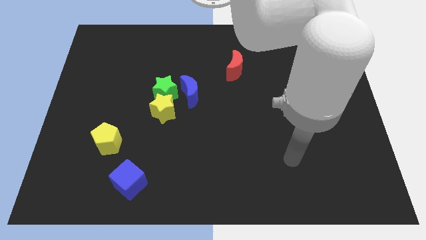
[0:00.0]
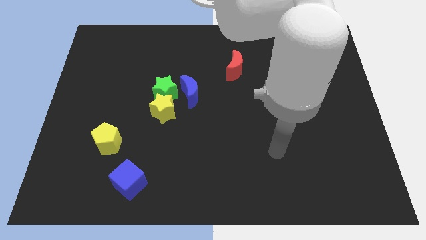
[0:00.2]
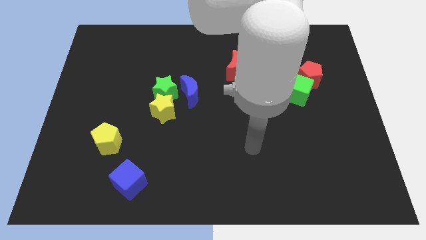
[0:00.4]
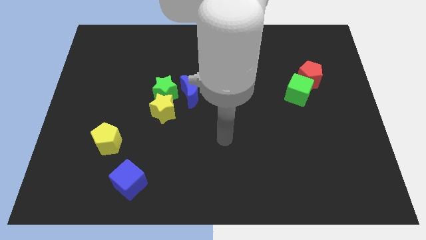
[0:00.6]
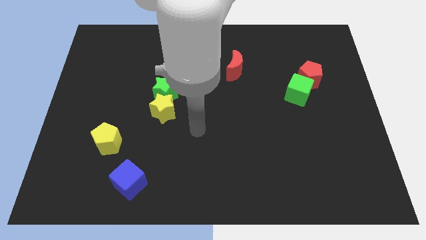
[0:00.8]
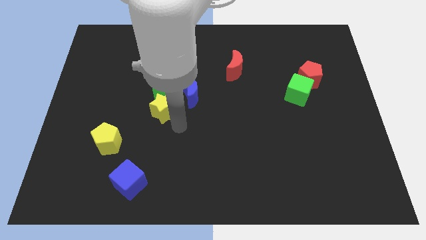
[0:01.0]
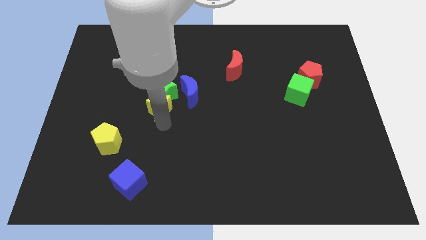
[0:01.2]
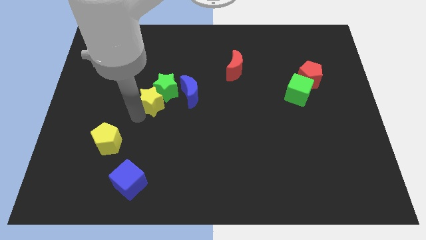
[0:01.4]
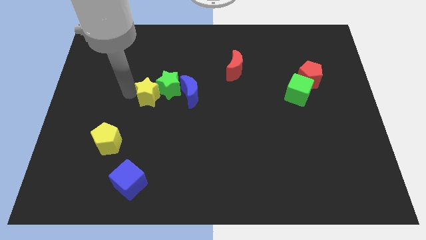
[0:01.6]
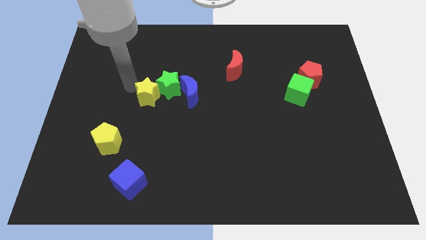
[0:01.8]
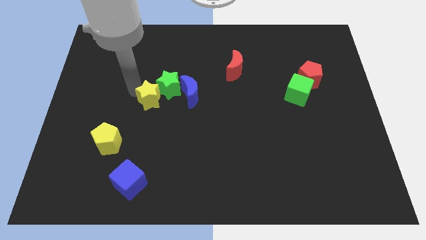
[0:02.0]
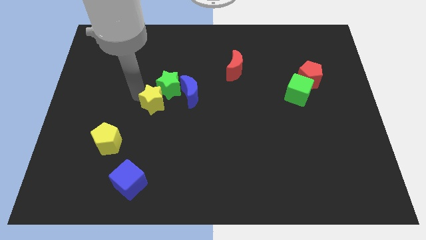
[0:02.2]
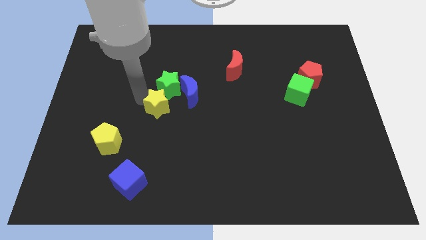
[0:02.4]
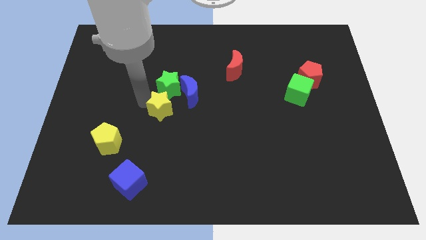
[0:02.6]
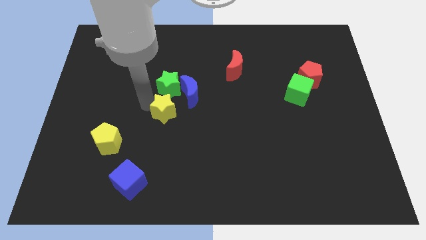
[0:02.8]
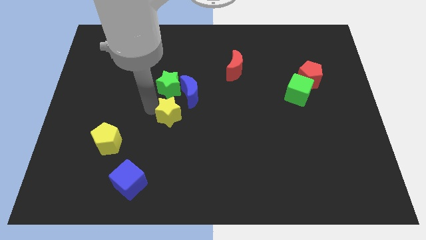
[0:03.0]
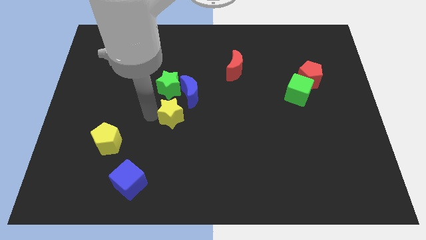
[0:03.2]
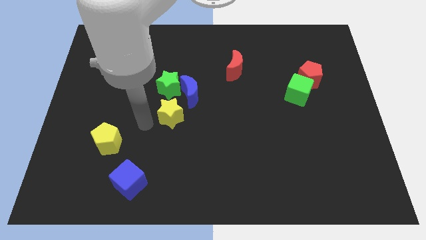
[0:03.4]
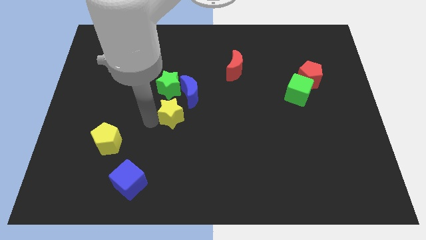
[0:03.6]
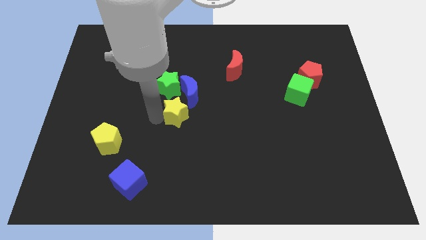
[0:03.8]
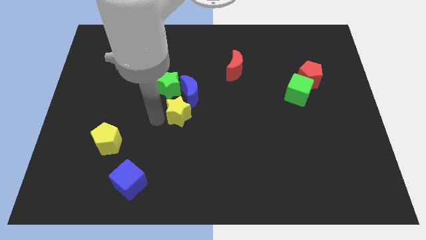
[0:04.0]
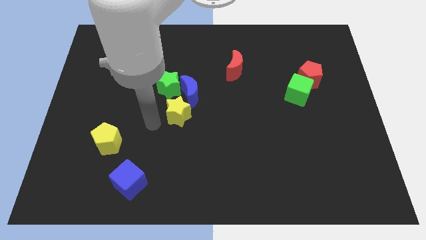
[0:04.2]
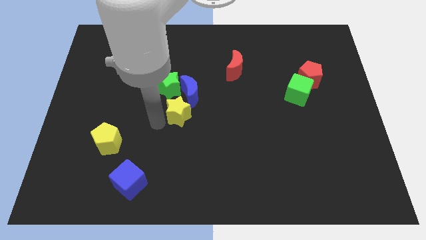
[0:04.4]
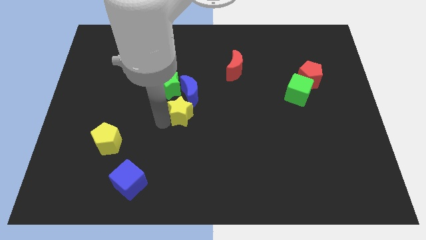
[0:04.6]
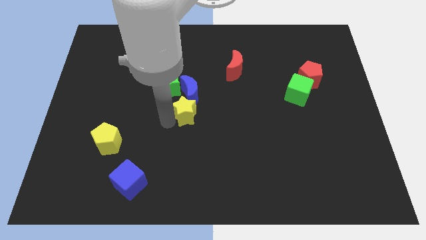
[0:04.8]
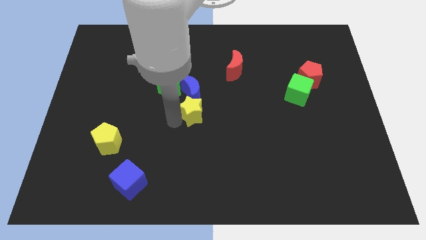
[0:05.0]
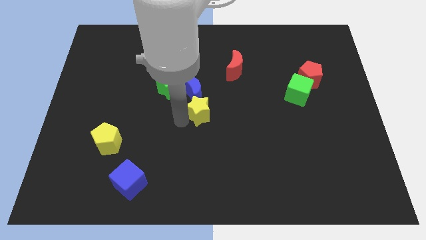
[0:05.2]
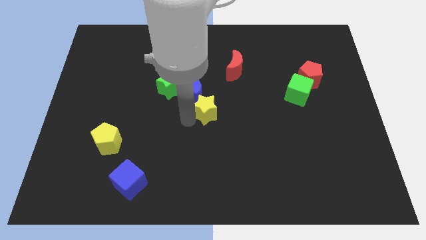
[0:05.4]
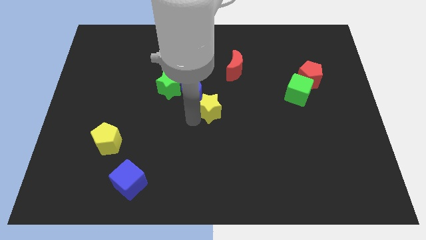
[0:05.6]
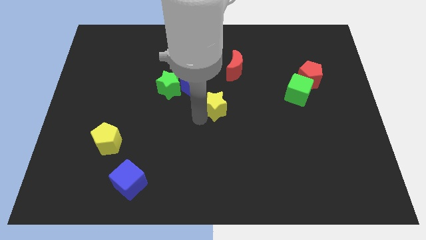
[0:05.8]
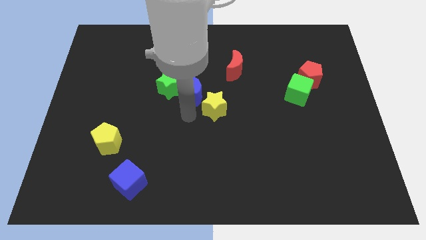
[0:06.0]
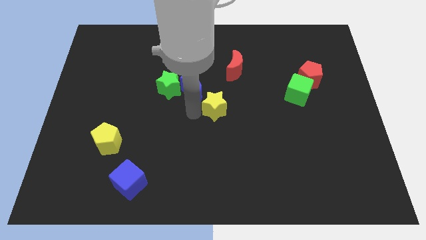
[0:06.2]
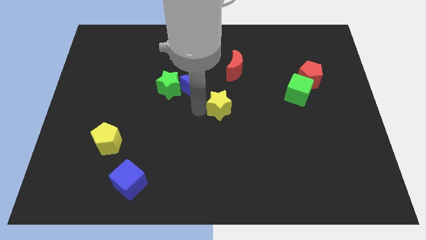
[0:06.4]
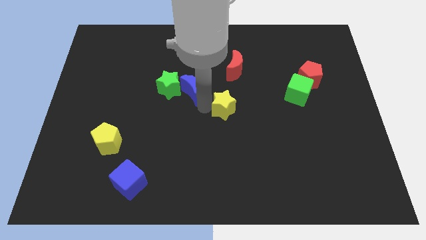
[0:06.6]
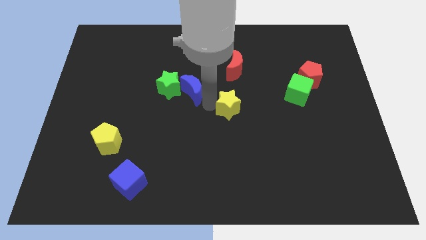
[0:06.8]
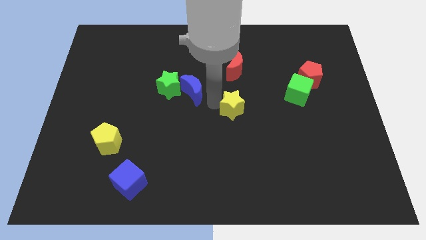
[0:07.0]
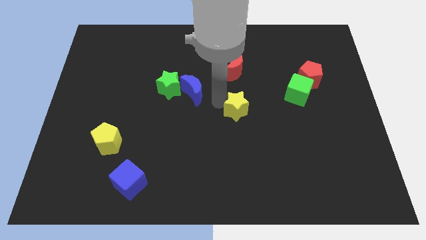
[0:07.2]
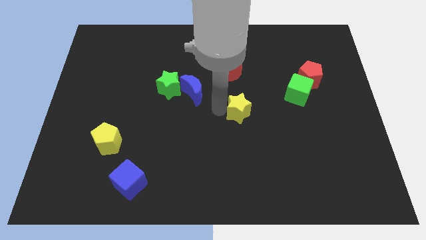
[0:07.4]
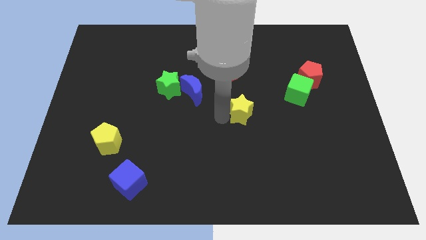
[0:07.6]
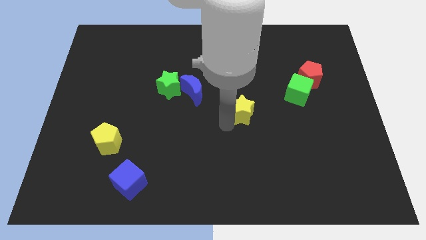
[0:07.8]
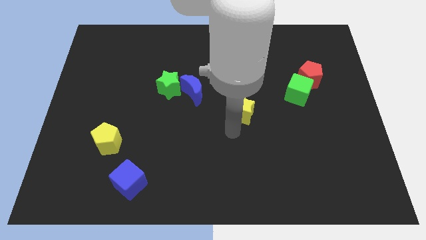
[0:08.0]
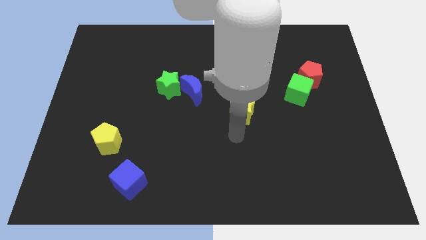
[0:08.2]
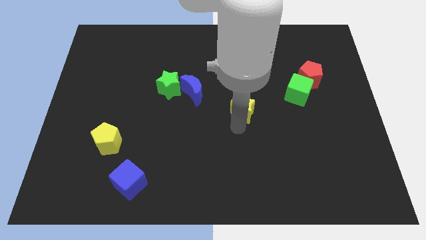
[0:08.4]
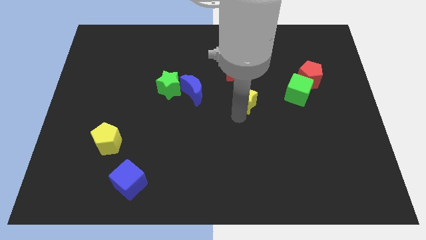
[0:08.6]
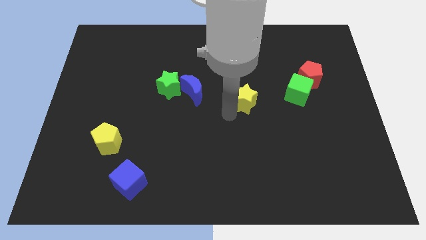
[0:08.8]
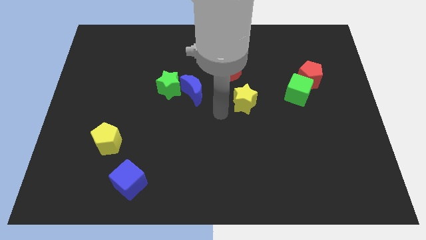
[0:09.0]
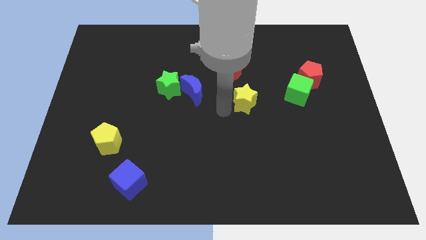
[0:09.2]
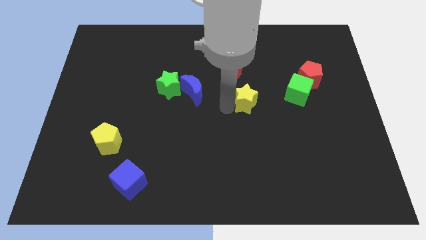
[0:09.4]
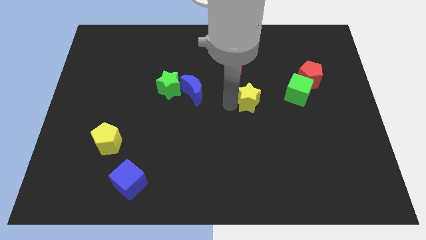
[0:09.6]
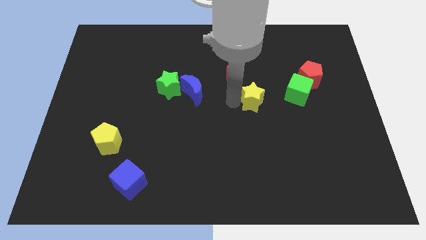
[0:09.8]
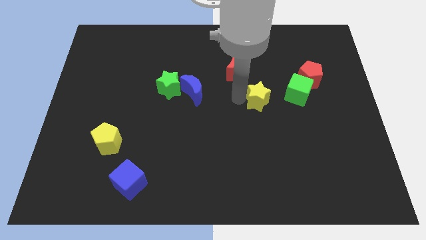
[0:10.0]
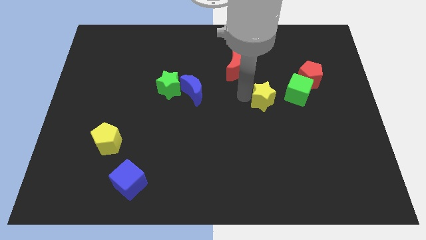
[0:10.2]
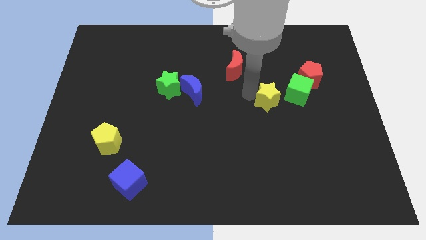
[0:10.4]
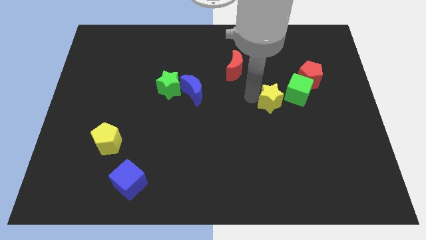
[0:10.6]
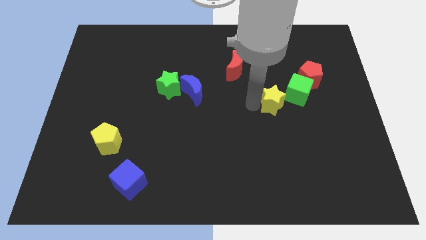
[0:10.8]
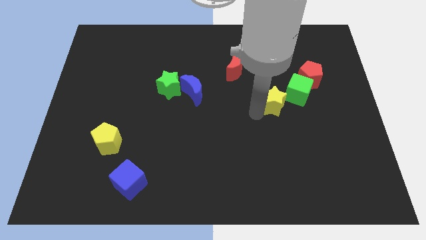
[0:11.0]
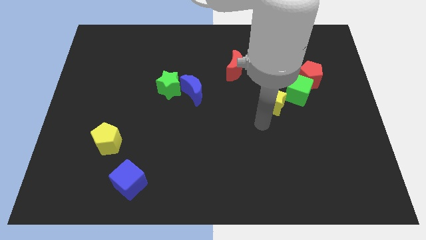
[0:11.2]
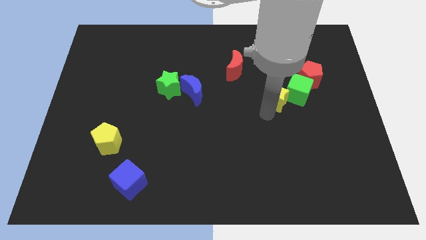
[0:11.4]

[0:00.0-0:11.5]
push the yellow star next to the green cube
